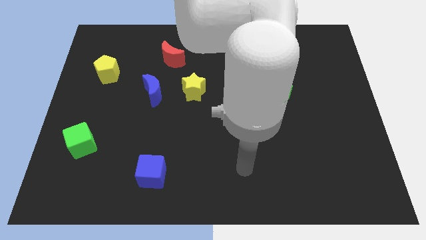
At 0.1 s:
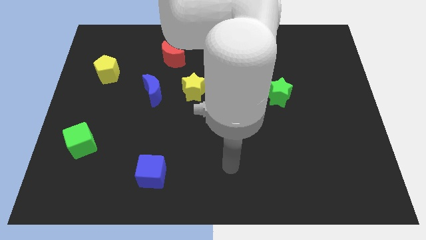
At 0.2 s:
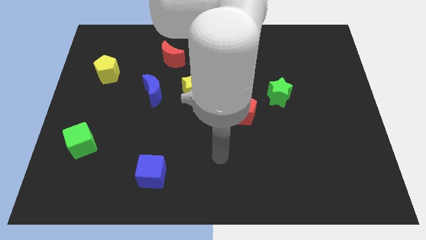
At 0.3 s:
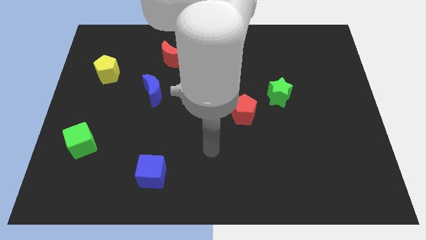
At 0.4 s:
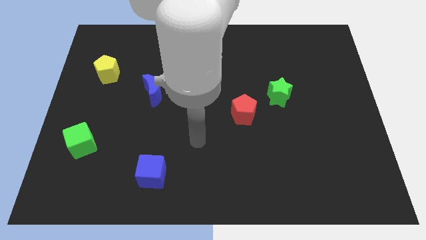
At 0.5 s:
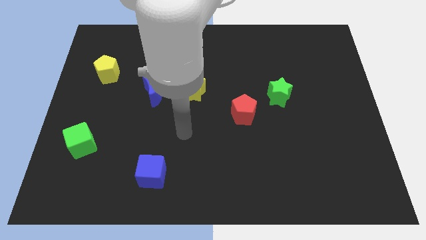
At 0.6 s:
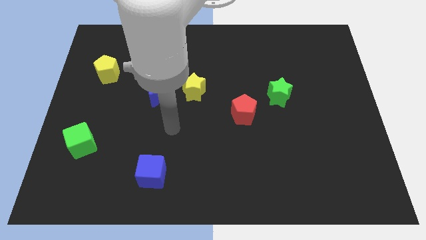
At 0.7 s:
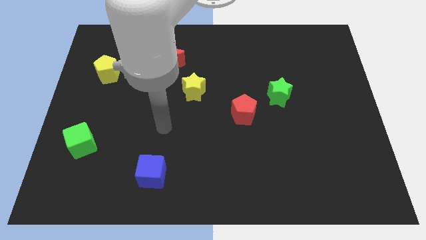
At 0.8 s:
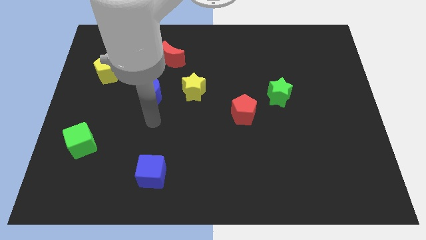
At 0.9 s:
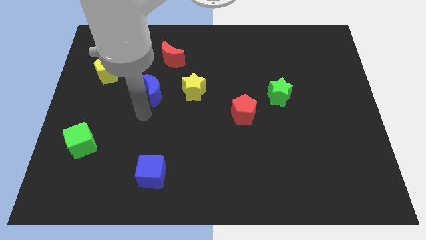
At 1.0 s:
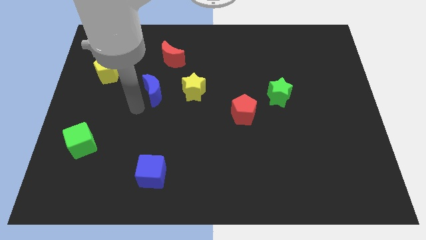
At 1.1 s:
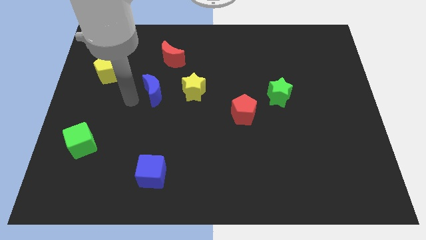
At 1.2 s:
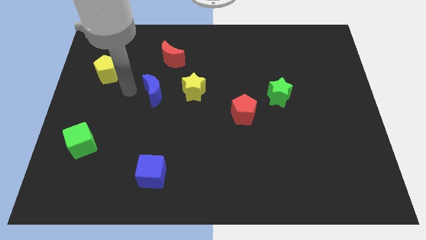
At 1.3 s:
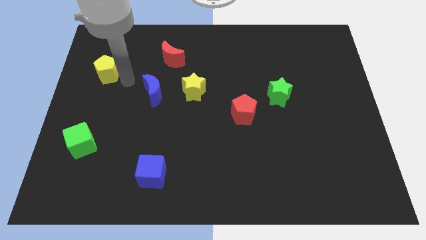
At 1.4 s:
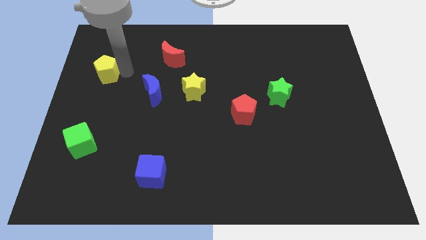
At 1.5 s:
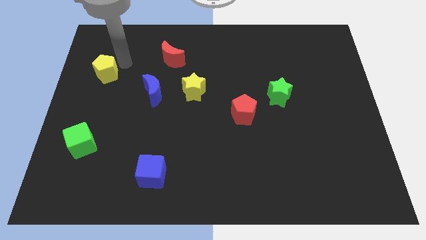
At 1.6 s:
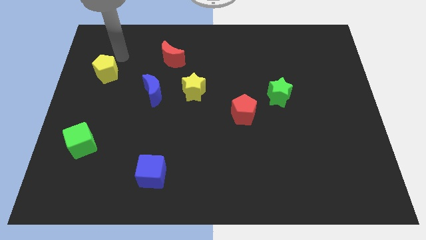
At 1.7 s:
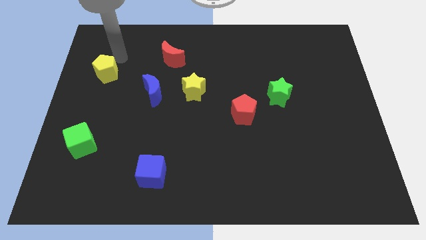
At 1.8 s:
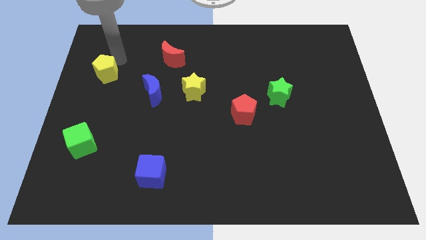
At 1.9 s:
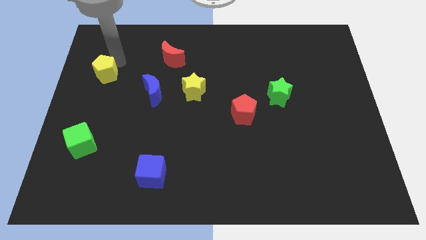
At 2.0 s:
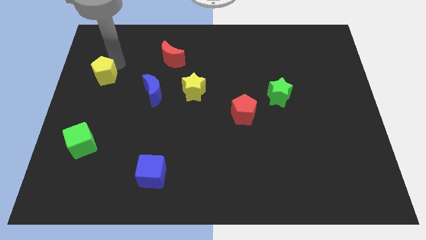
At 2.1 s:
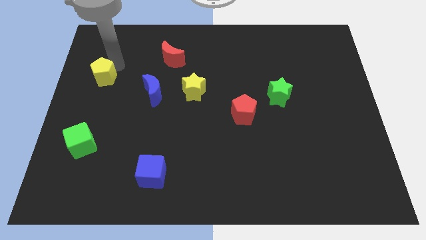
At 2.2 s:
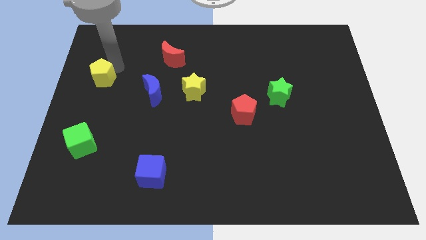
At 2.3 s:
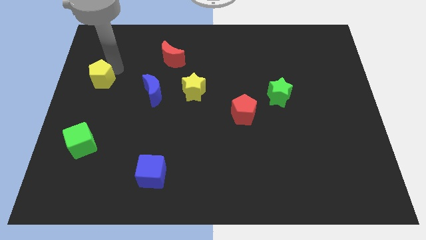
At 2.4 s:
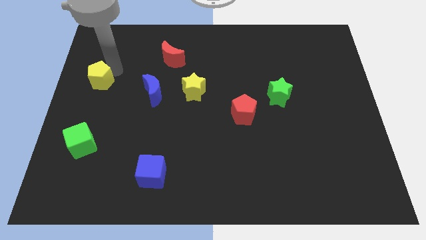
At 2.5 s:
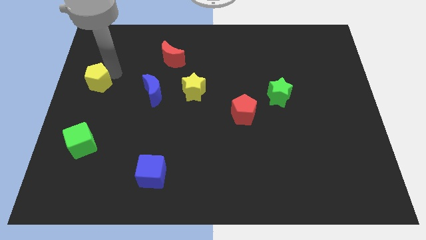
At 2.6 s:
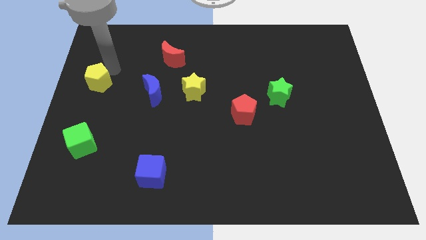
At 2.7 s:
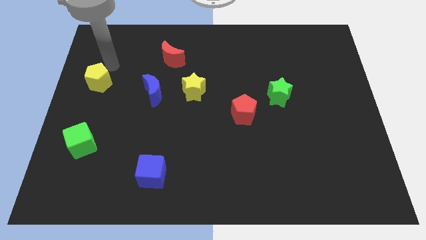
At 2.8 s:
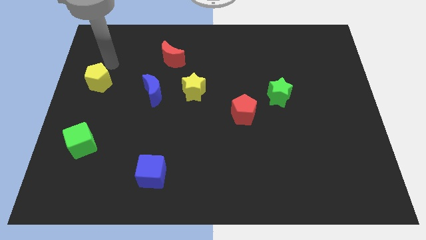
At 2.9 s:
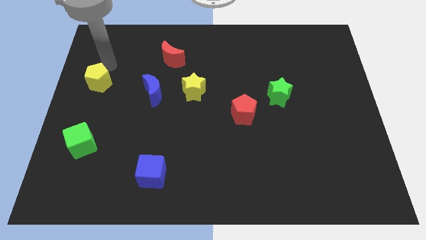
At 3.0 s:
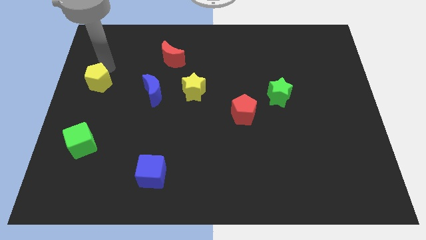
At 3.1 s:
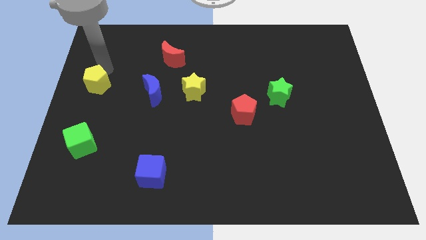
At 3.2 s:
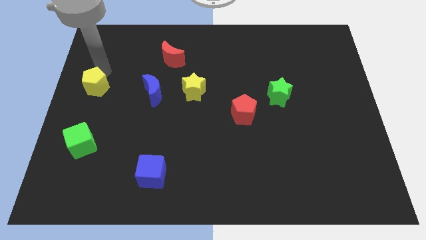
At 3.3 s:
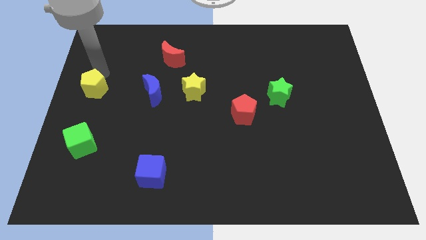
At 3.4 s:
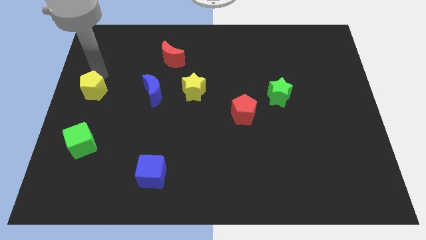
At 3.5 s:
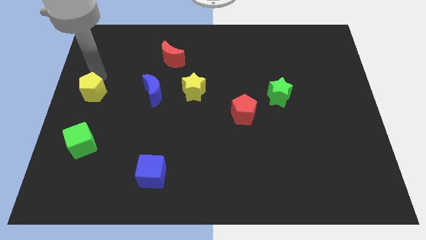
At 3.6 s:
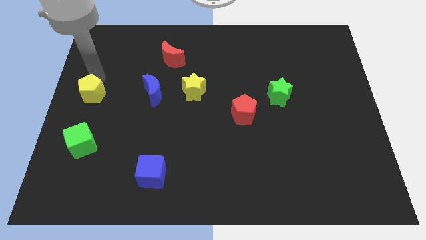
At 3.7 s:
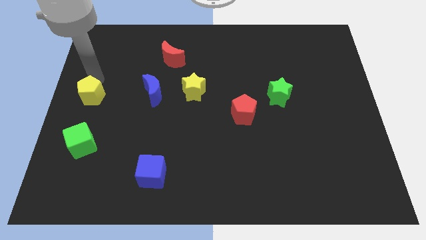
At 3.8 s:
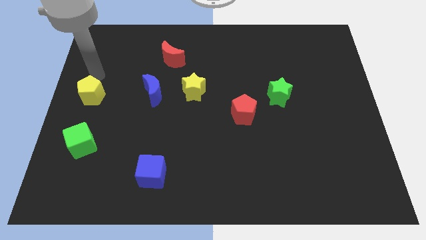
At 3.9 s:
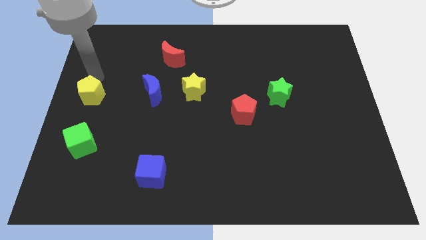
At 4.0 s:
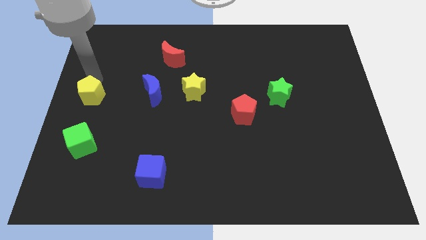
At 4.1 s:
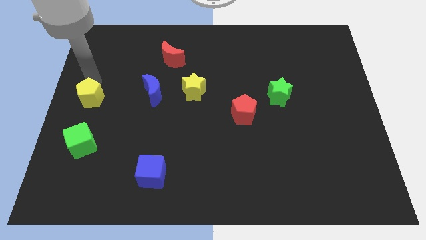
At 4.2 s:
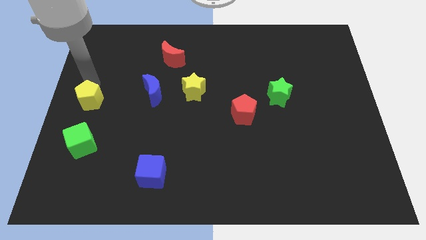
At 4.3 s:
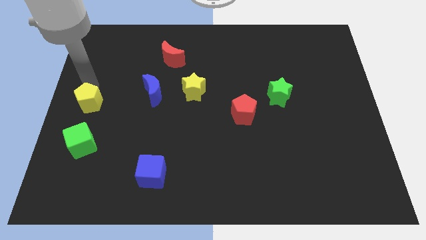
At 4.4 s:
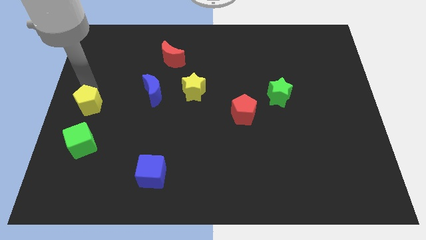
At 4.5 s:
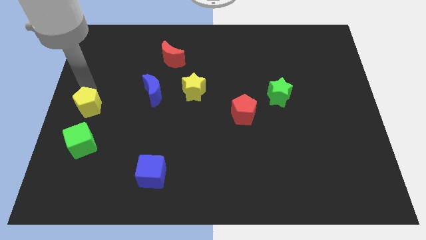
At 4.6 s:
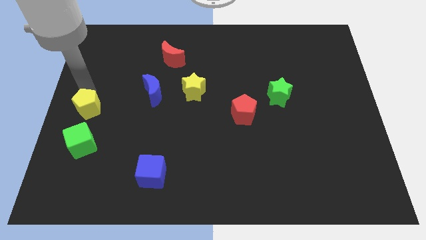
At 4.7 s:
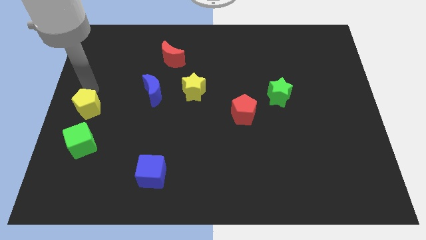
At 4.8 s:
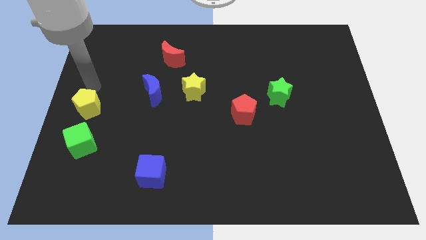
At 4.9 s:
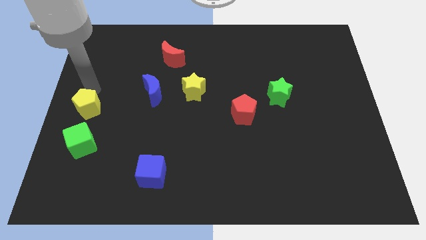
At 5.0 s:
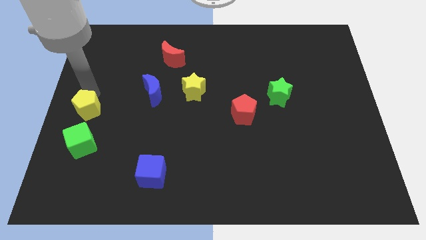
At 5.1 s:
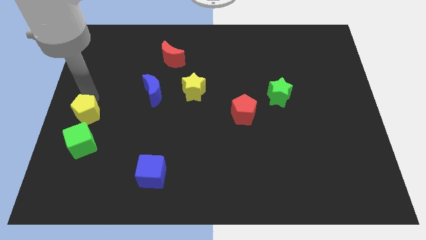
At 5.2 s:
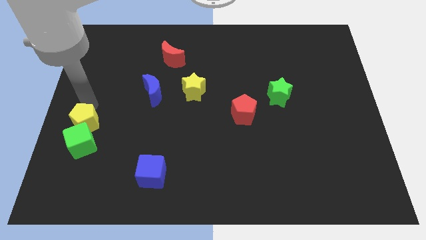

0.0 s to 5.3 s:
put the yellow pentagon next to the green cube

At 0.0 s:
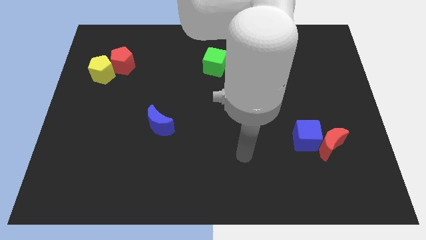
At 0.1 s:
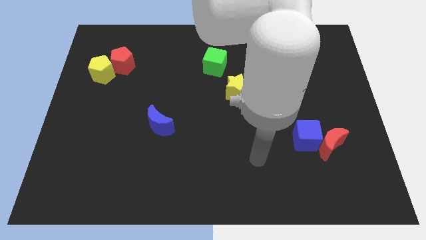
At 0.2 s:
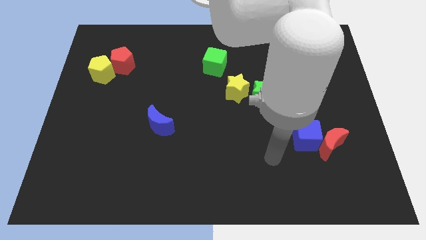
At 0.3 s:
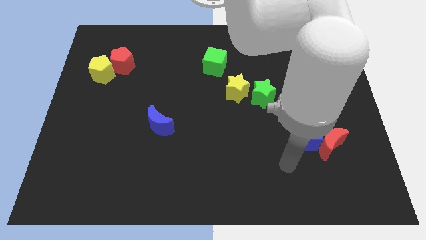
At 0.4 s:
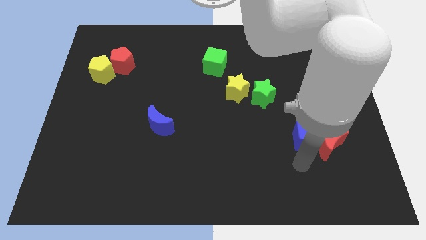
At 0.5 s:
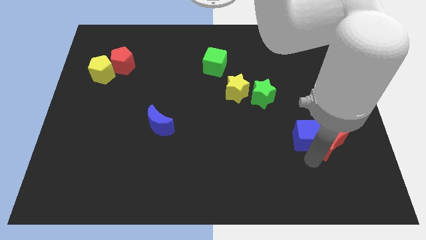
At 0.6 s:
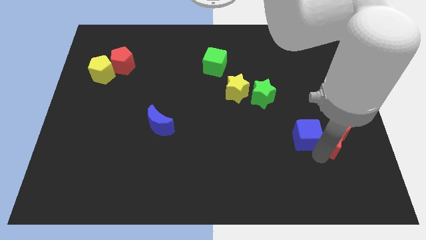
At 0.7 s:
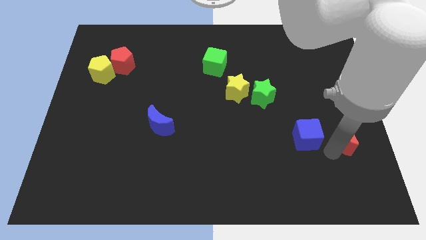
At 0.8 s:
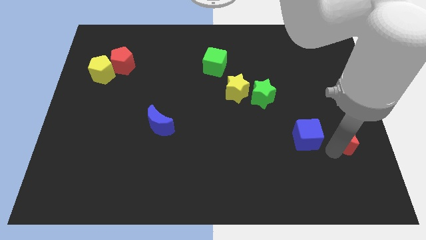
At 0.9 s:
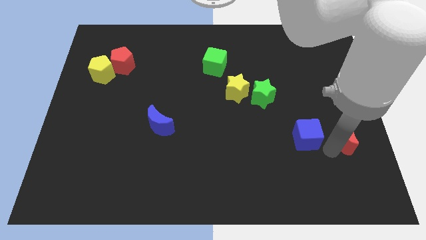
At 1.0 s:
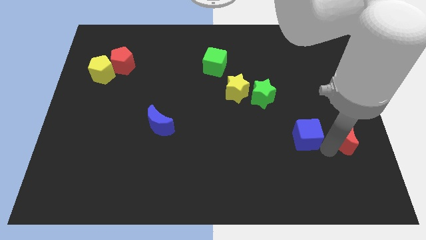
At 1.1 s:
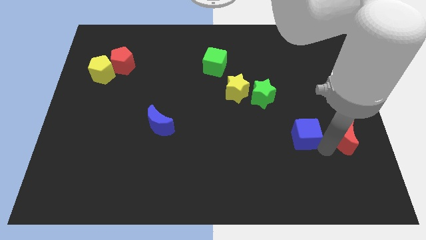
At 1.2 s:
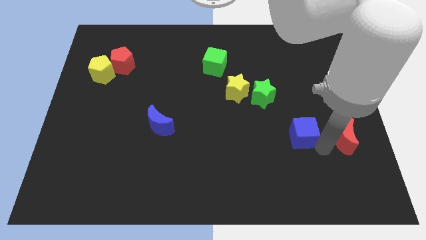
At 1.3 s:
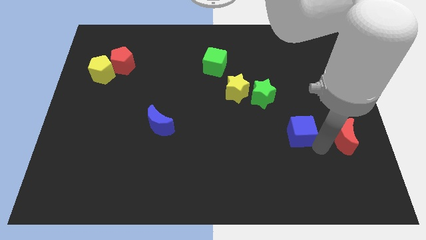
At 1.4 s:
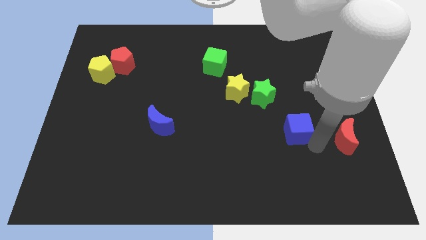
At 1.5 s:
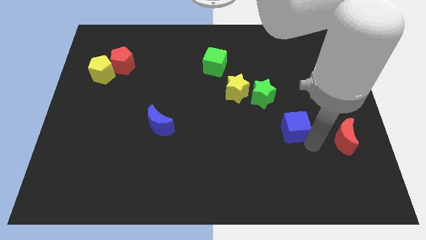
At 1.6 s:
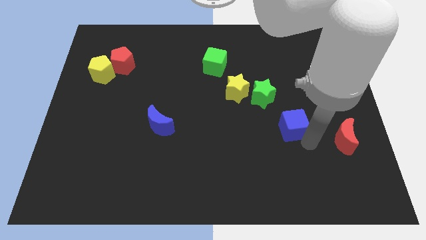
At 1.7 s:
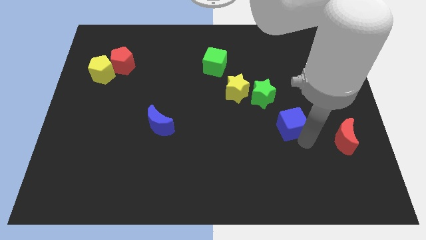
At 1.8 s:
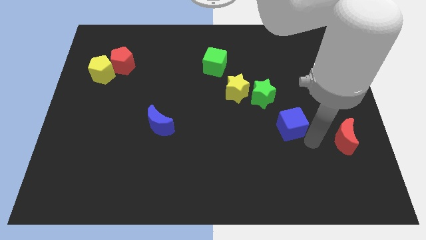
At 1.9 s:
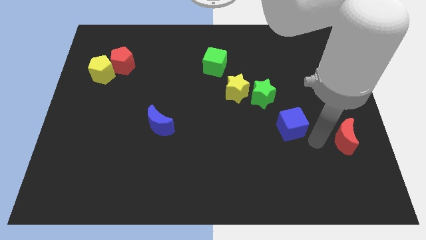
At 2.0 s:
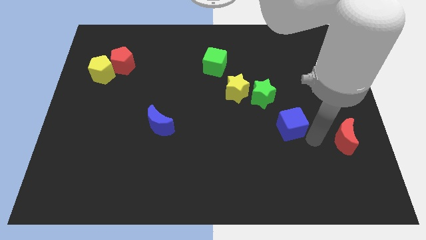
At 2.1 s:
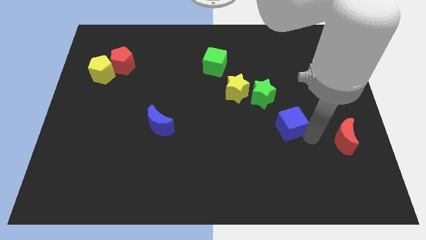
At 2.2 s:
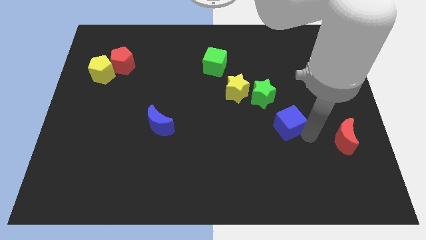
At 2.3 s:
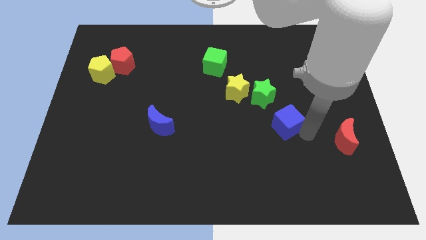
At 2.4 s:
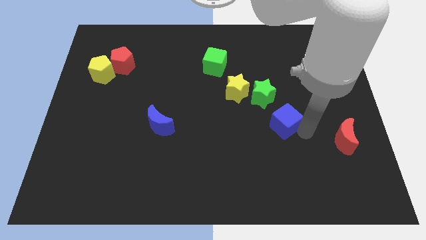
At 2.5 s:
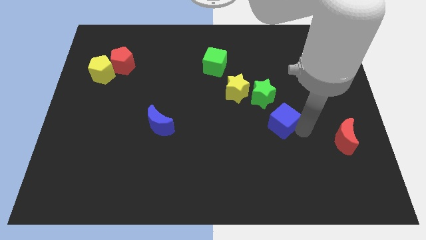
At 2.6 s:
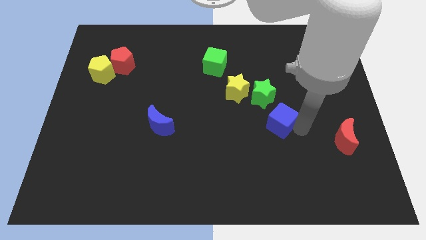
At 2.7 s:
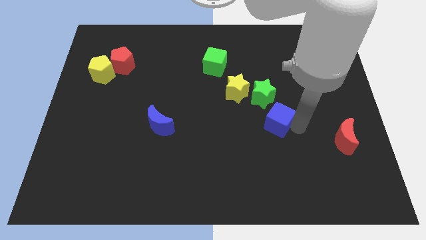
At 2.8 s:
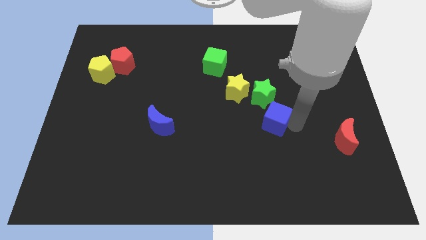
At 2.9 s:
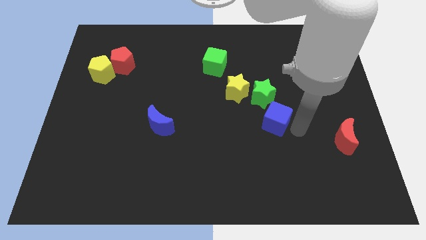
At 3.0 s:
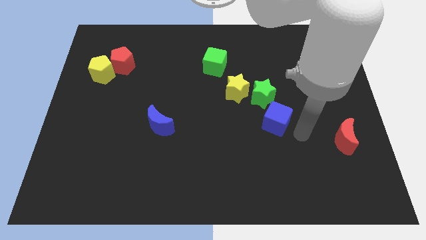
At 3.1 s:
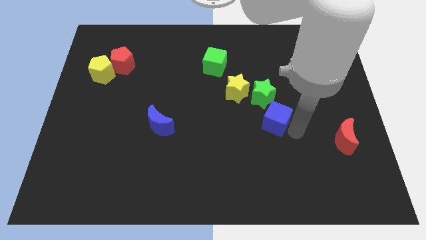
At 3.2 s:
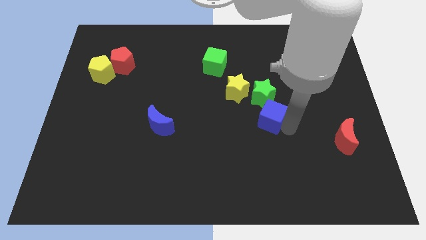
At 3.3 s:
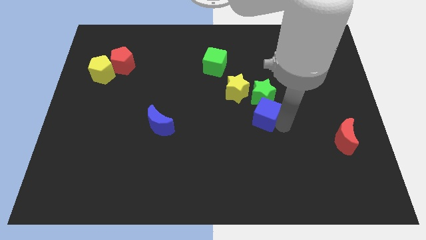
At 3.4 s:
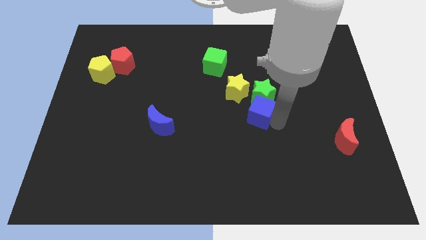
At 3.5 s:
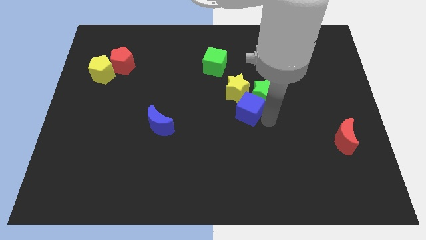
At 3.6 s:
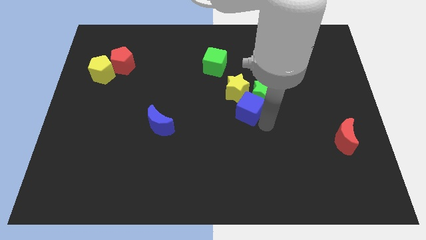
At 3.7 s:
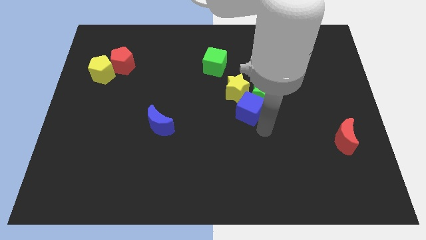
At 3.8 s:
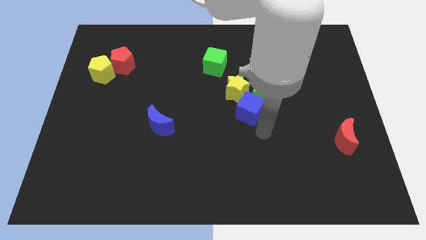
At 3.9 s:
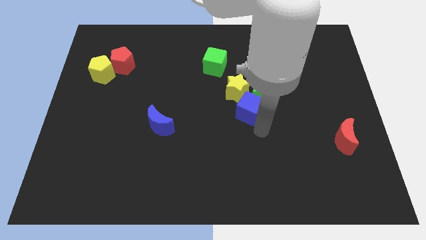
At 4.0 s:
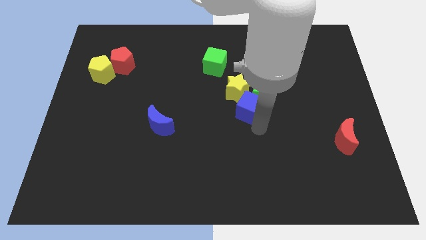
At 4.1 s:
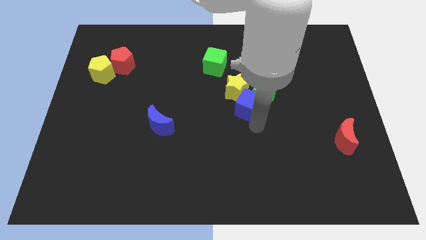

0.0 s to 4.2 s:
put the blue cube next to the yellow star
